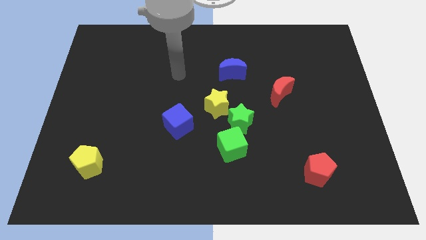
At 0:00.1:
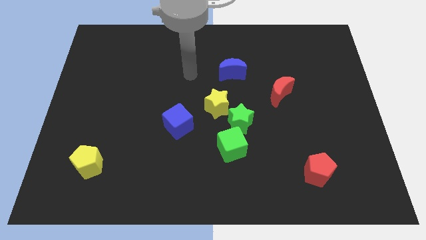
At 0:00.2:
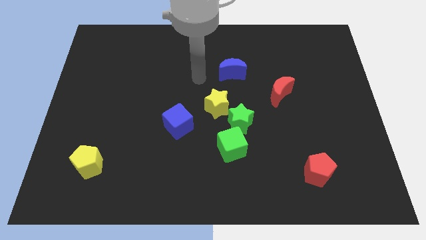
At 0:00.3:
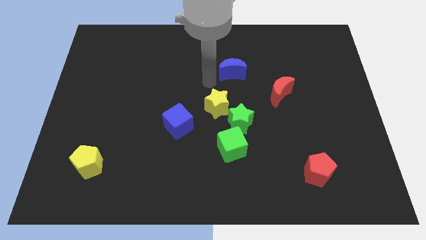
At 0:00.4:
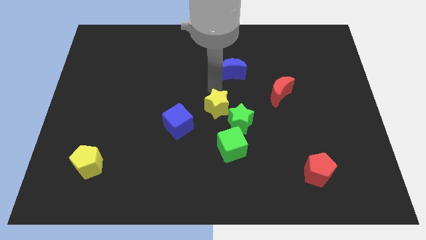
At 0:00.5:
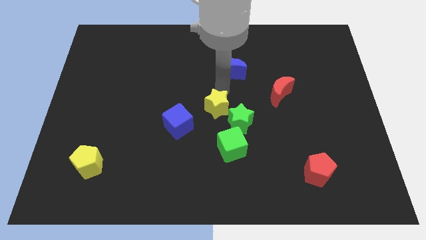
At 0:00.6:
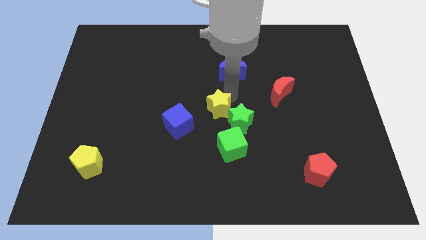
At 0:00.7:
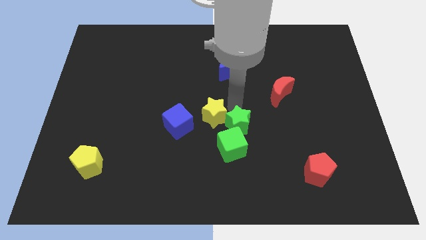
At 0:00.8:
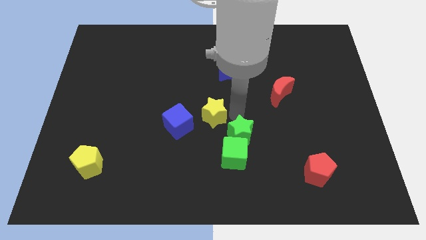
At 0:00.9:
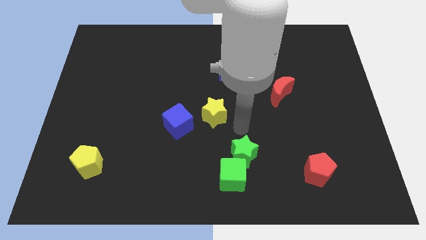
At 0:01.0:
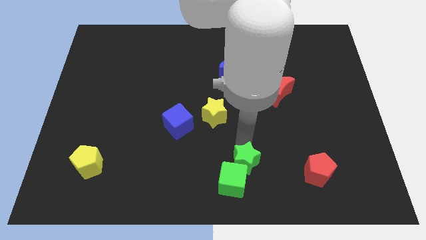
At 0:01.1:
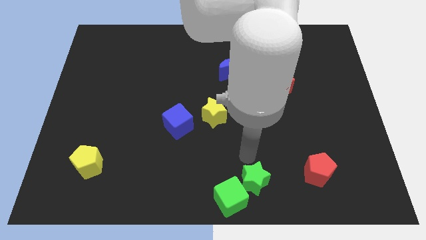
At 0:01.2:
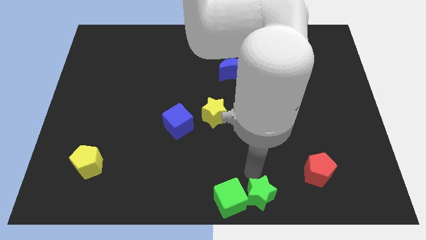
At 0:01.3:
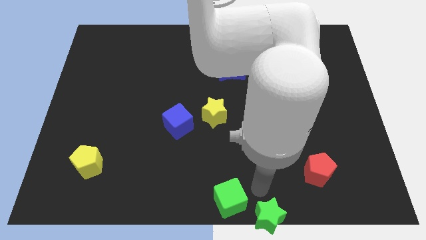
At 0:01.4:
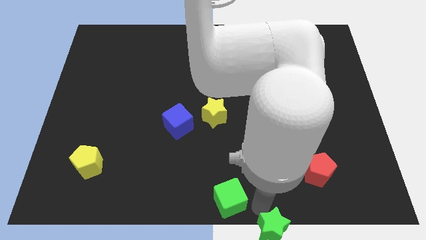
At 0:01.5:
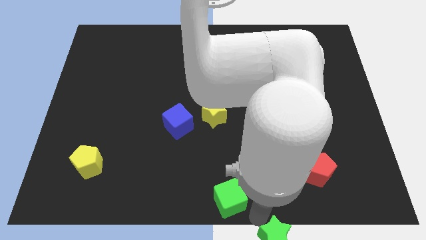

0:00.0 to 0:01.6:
pull the green cube apart from the green star

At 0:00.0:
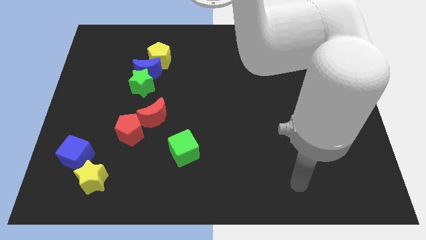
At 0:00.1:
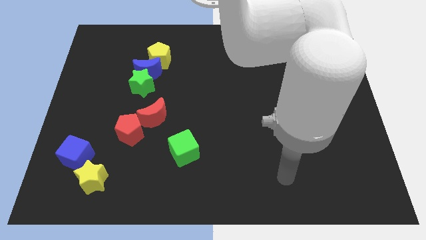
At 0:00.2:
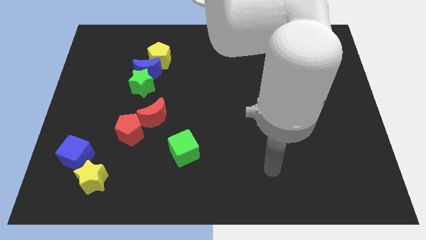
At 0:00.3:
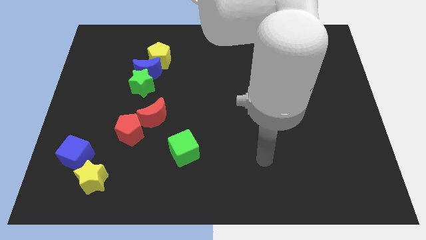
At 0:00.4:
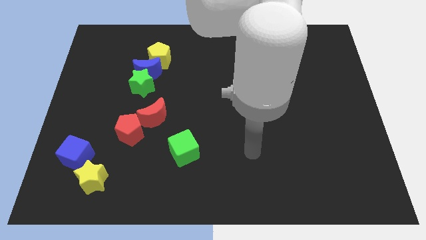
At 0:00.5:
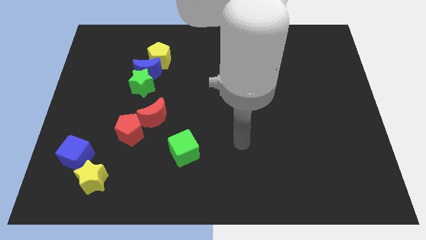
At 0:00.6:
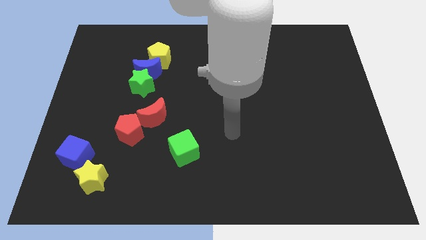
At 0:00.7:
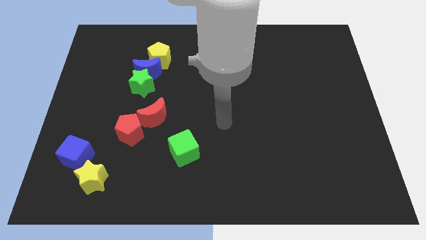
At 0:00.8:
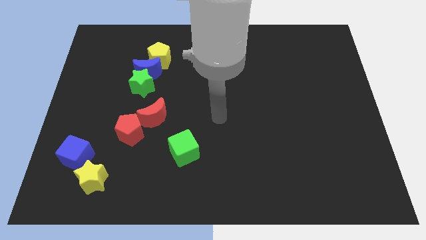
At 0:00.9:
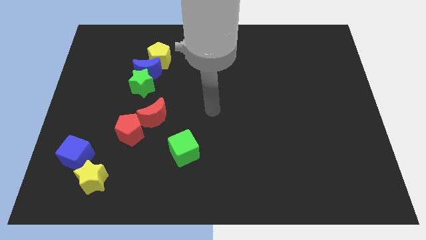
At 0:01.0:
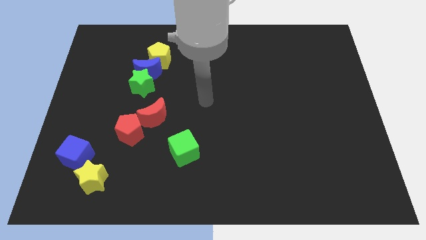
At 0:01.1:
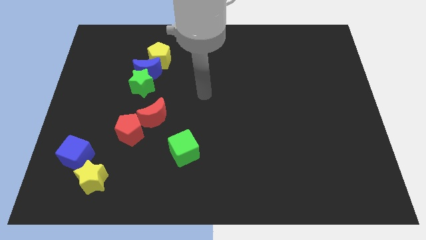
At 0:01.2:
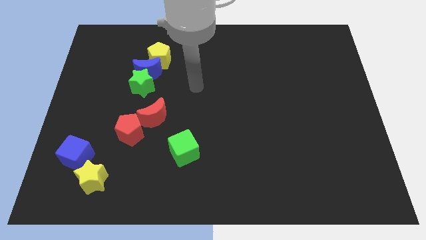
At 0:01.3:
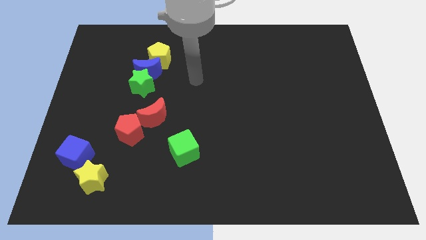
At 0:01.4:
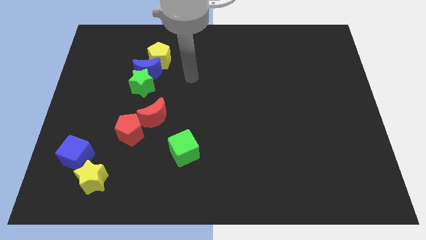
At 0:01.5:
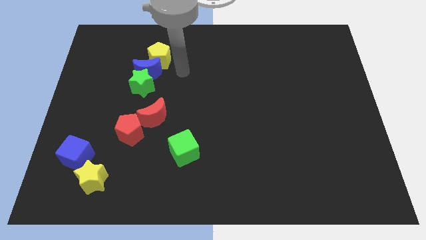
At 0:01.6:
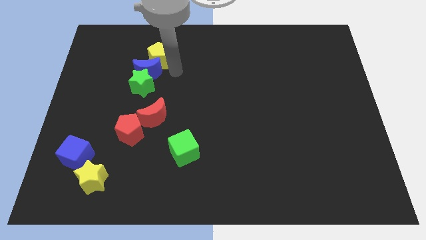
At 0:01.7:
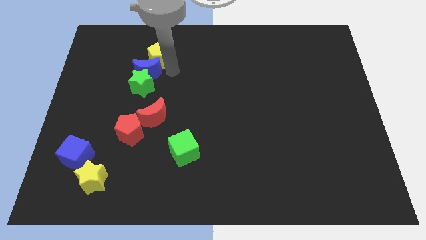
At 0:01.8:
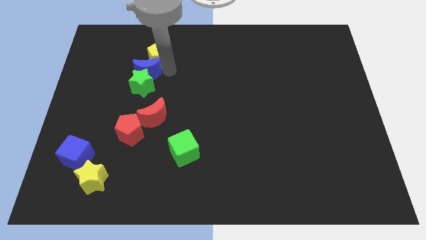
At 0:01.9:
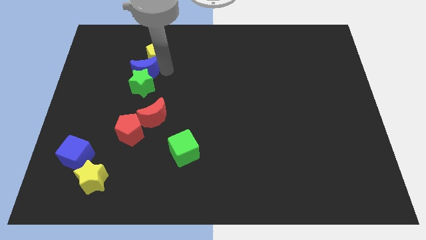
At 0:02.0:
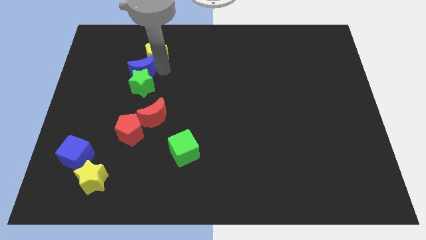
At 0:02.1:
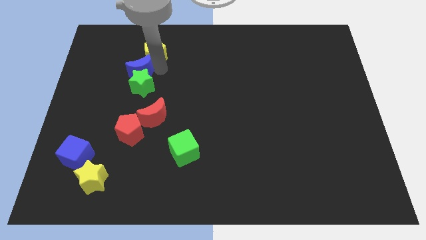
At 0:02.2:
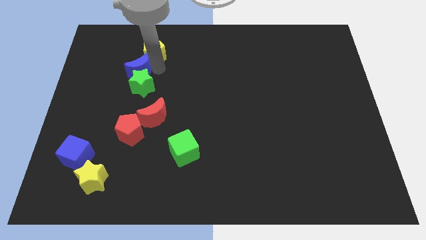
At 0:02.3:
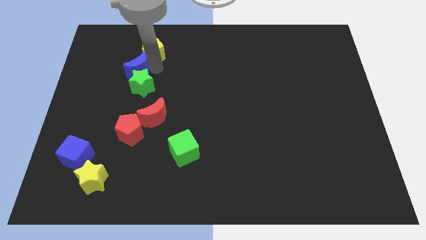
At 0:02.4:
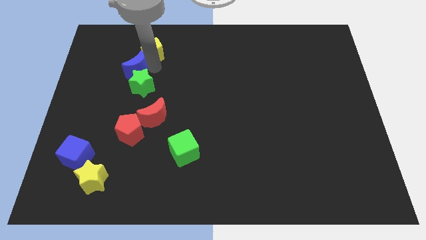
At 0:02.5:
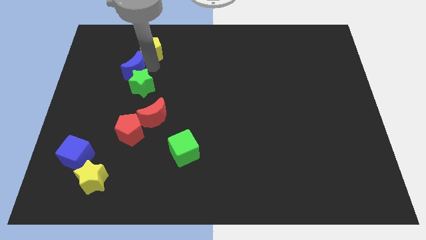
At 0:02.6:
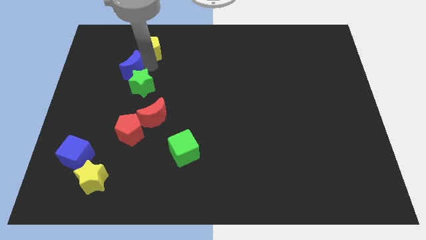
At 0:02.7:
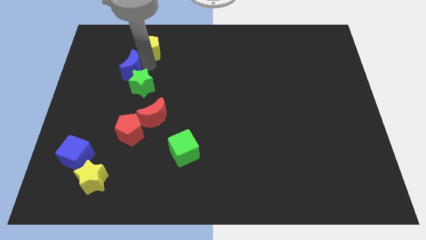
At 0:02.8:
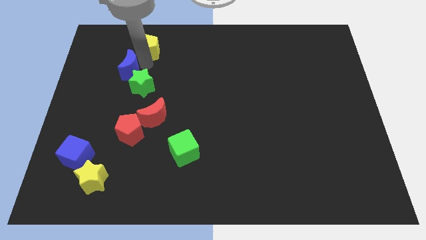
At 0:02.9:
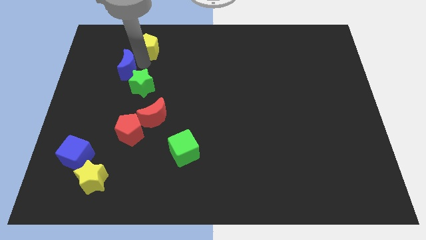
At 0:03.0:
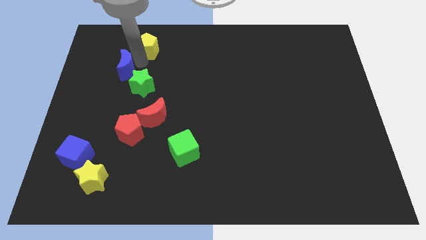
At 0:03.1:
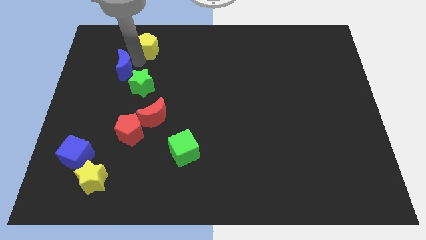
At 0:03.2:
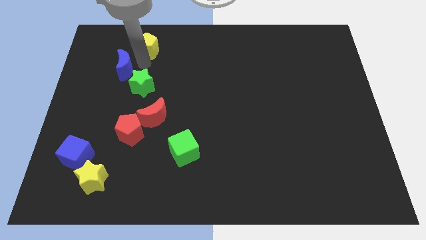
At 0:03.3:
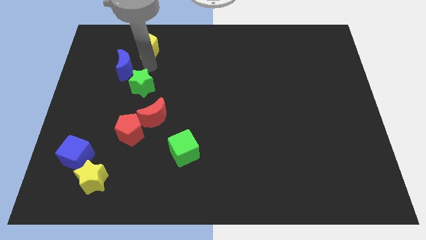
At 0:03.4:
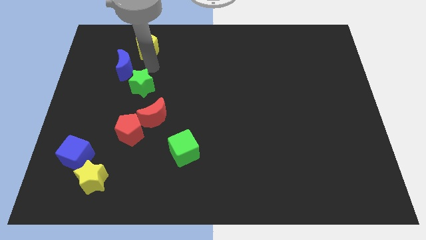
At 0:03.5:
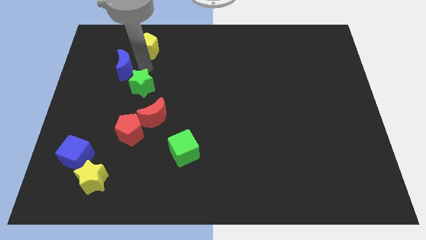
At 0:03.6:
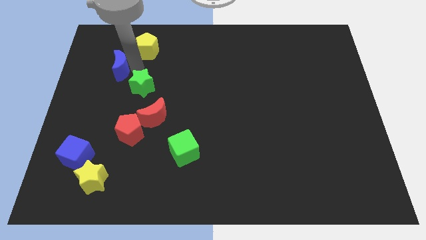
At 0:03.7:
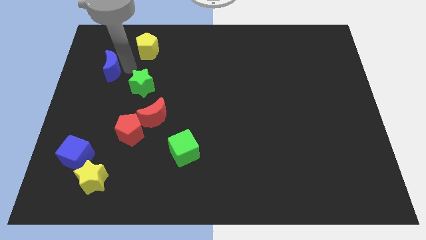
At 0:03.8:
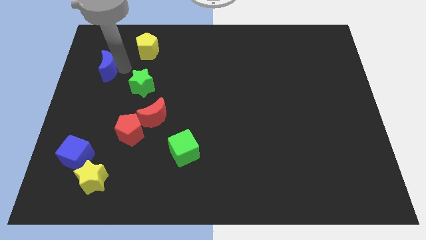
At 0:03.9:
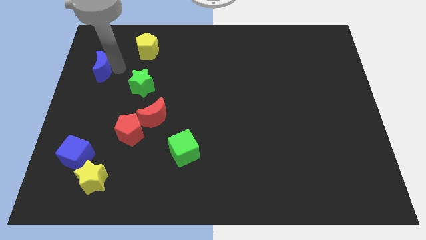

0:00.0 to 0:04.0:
pull the blue moon apart from the green star and yellow pentagon

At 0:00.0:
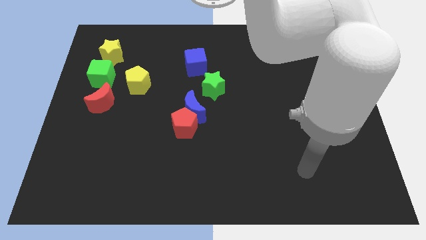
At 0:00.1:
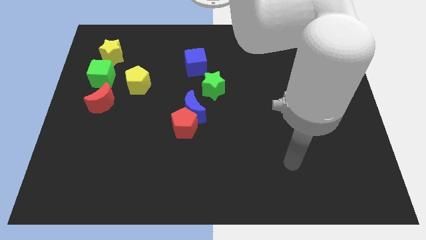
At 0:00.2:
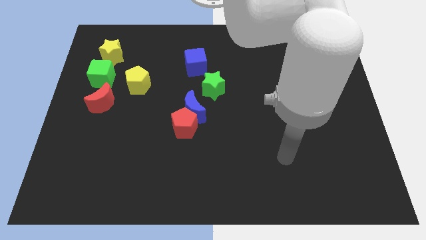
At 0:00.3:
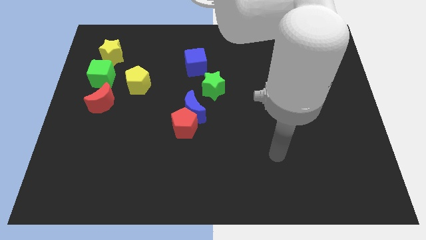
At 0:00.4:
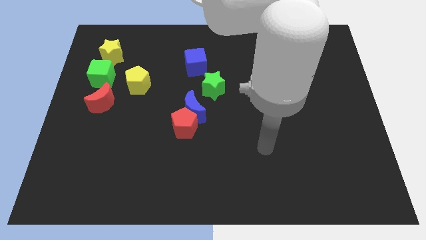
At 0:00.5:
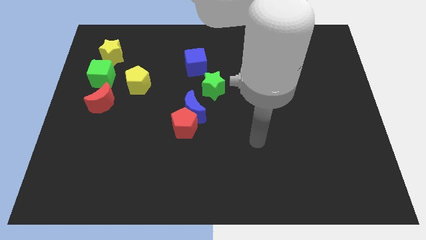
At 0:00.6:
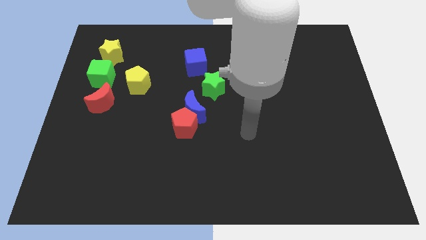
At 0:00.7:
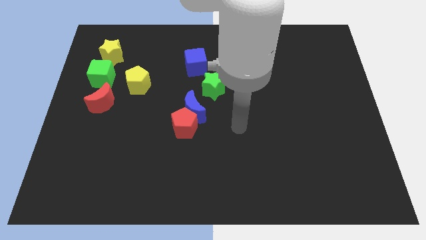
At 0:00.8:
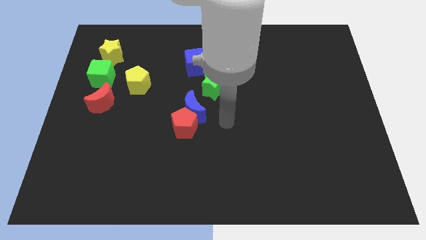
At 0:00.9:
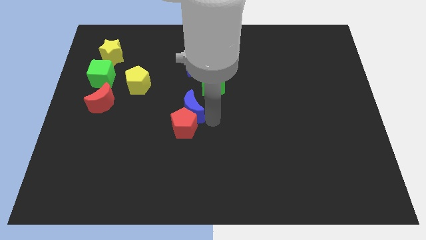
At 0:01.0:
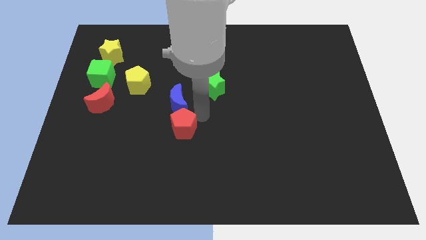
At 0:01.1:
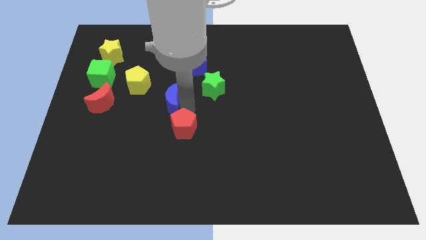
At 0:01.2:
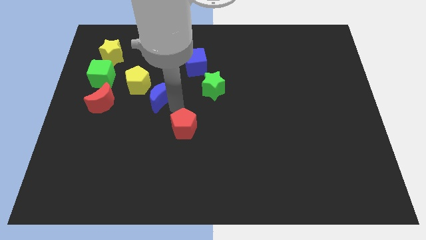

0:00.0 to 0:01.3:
separate the red pentagon from the blue moon

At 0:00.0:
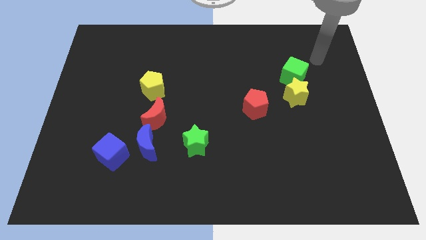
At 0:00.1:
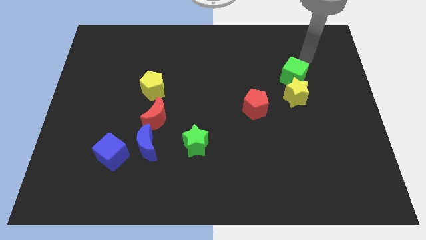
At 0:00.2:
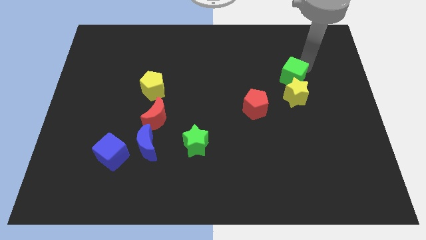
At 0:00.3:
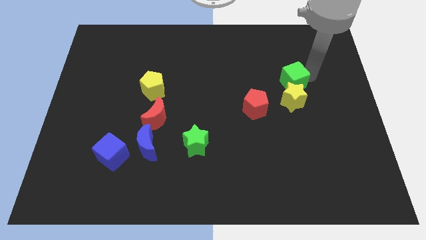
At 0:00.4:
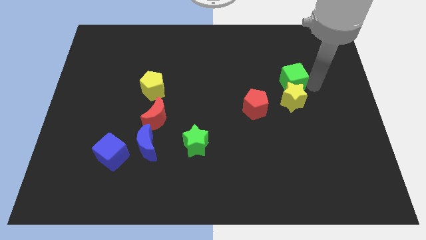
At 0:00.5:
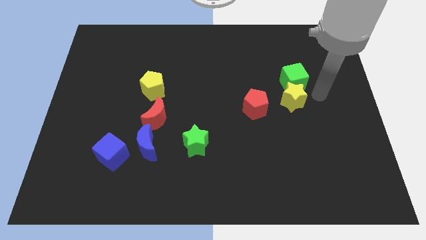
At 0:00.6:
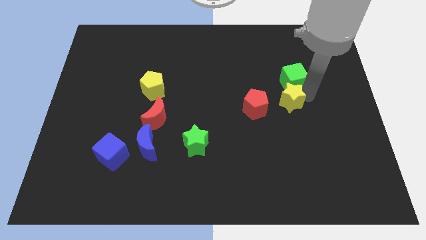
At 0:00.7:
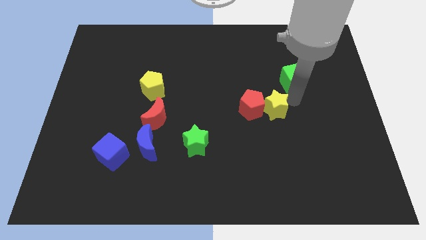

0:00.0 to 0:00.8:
pull the green cube apart from the yellow star

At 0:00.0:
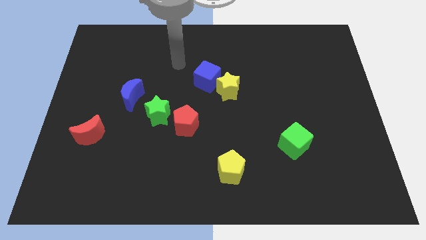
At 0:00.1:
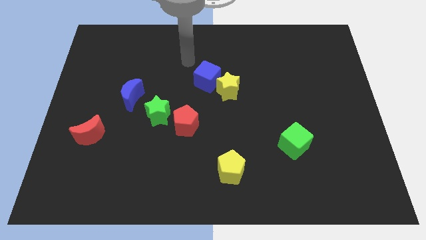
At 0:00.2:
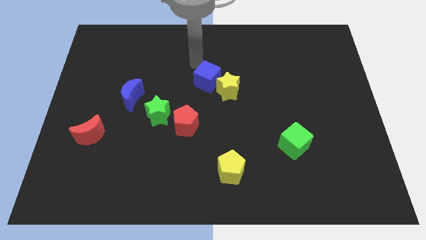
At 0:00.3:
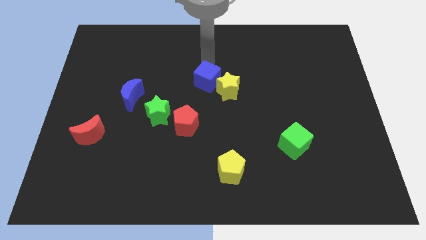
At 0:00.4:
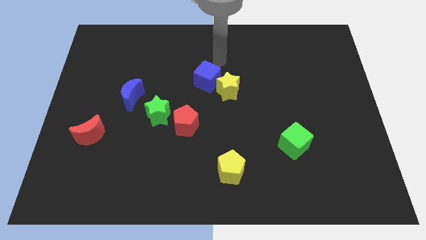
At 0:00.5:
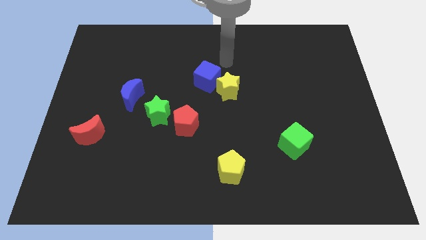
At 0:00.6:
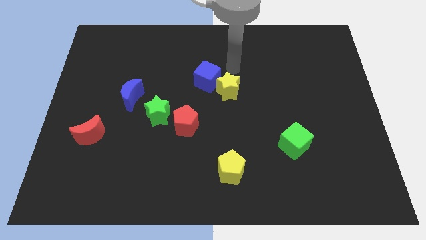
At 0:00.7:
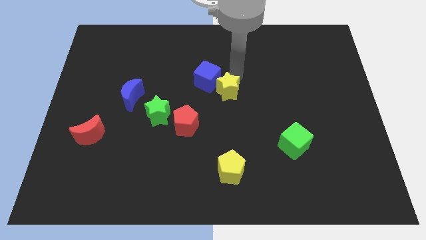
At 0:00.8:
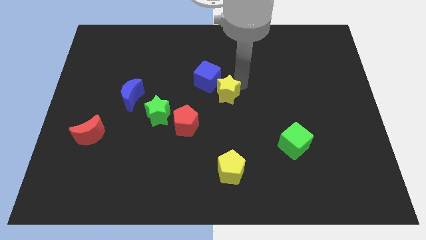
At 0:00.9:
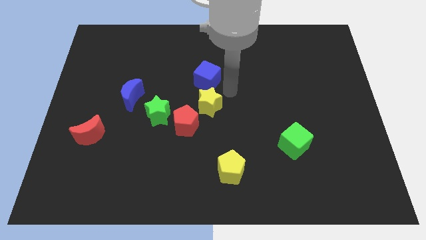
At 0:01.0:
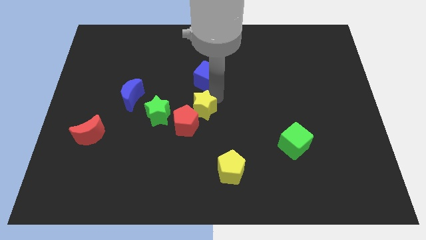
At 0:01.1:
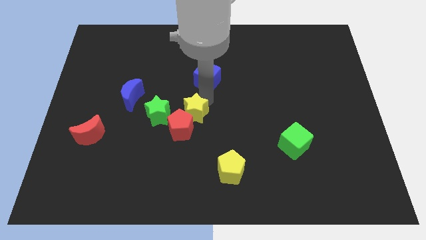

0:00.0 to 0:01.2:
move the blue cube away from the yellow star

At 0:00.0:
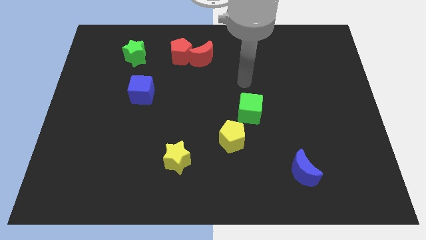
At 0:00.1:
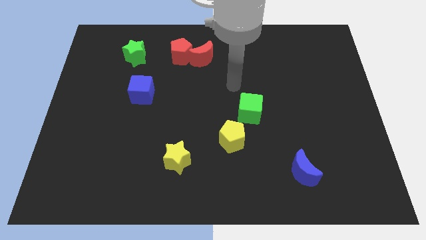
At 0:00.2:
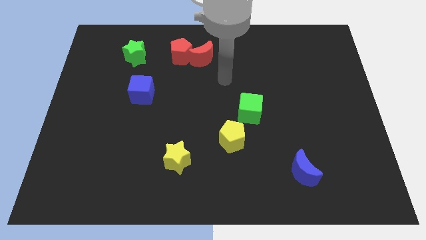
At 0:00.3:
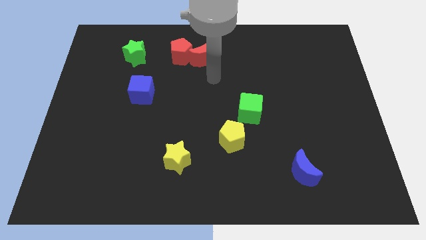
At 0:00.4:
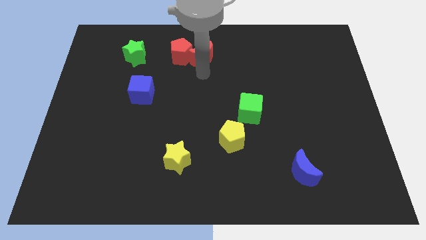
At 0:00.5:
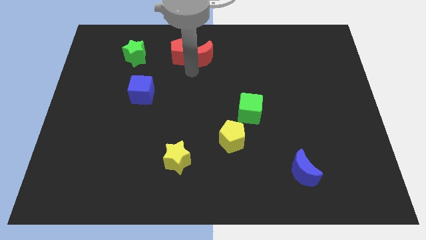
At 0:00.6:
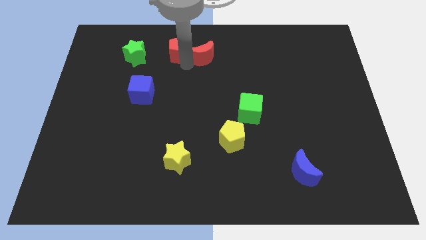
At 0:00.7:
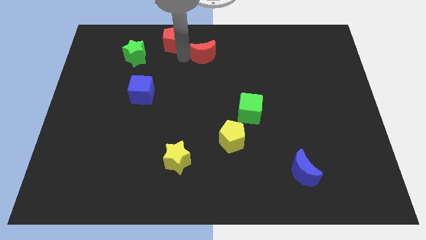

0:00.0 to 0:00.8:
move the red moon away from the red pentagon
